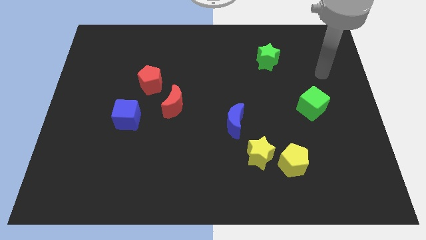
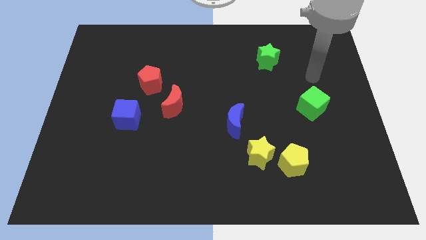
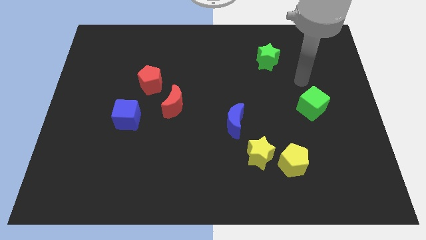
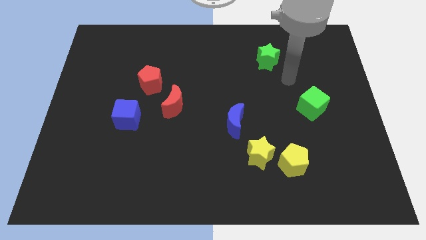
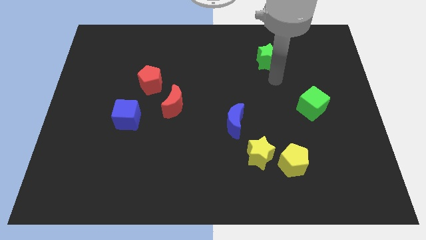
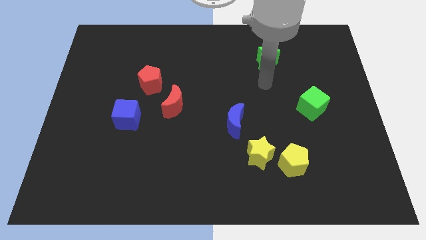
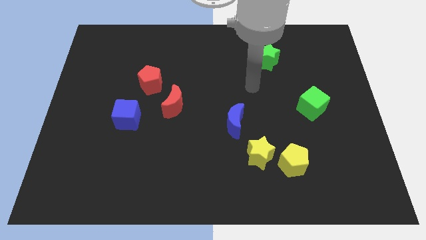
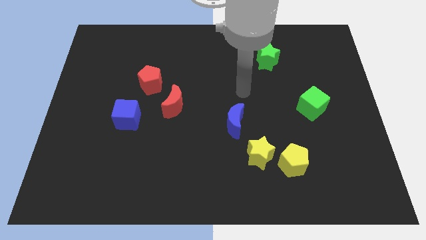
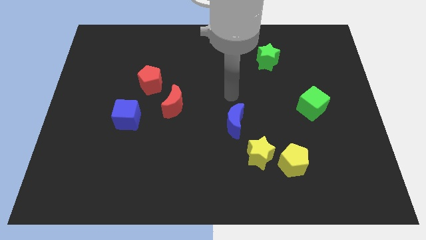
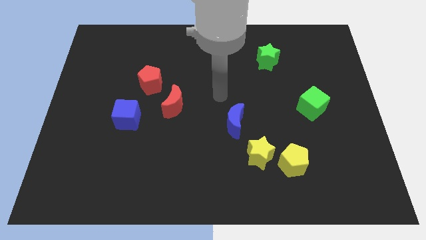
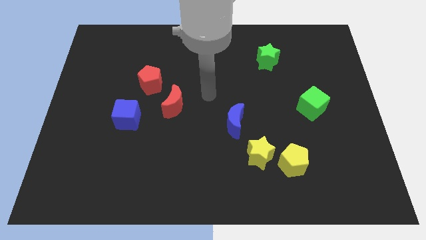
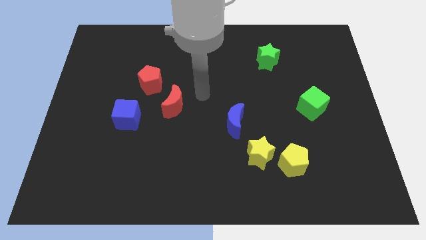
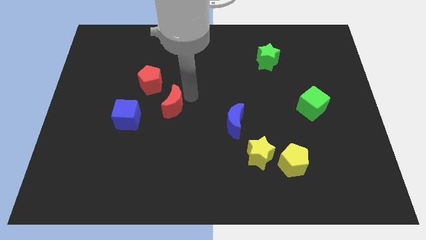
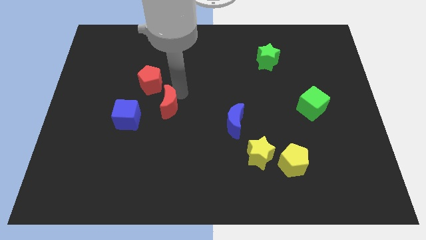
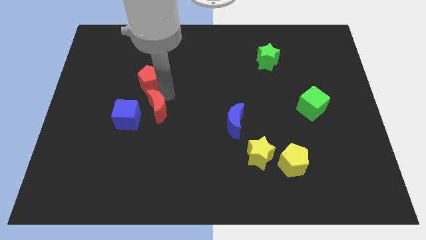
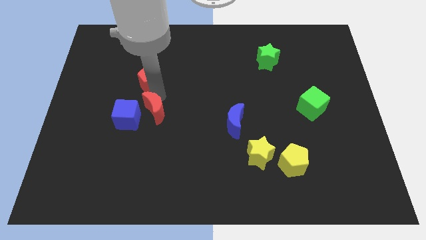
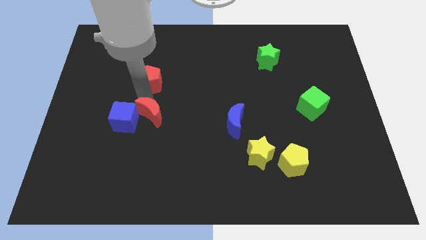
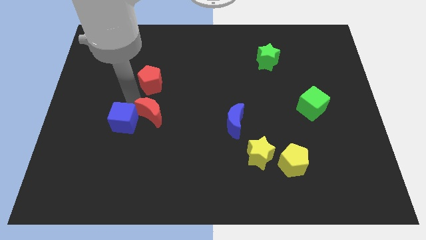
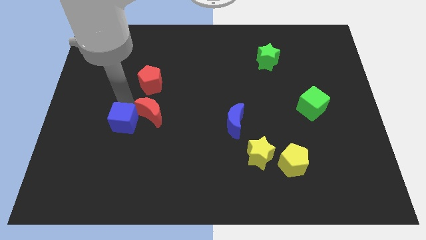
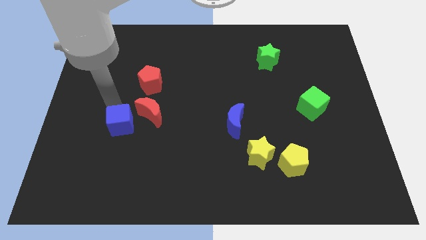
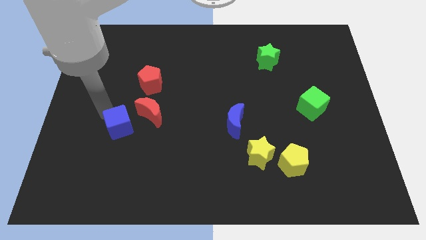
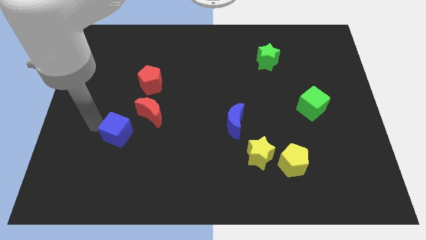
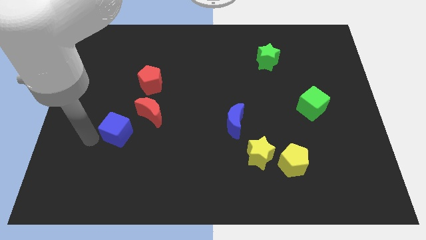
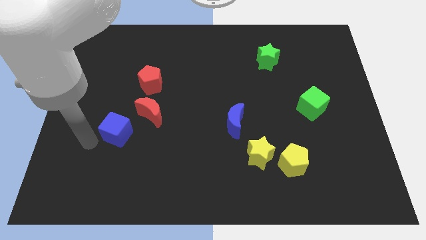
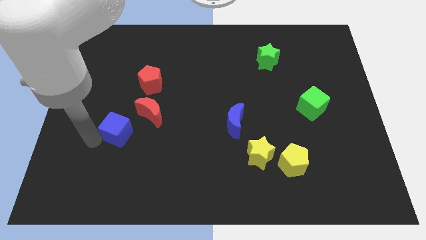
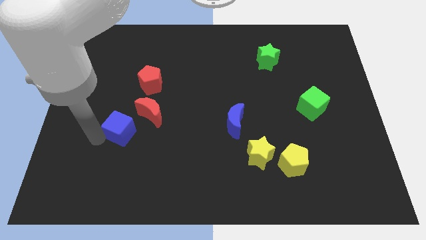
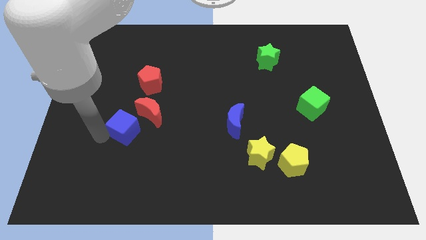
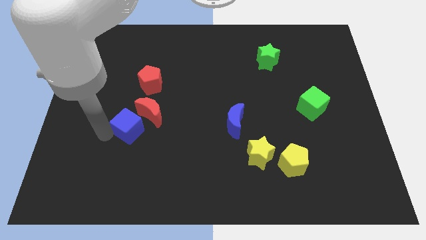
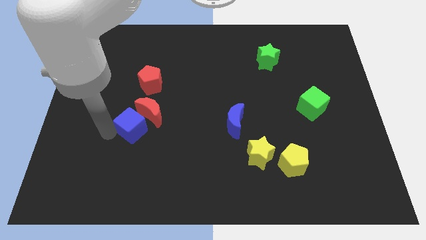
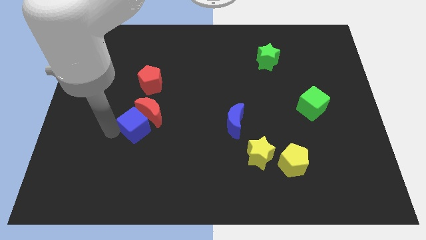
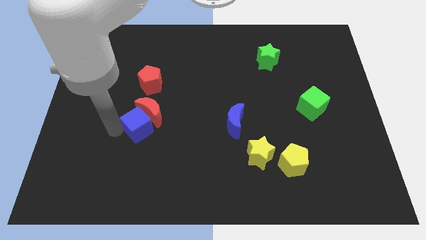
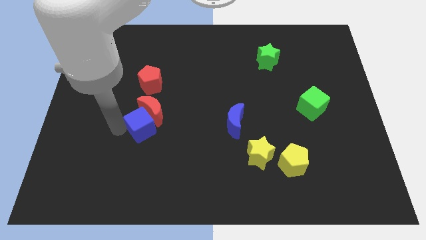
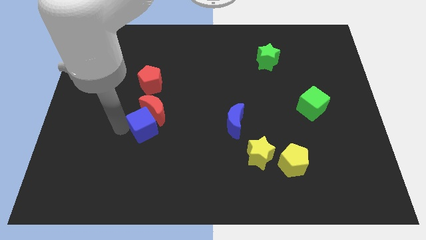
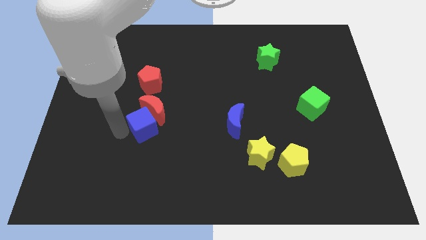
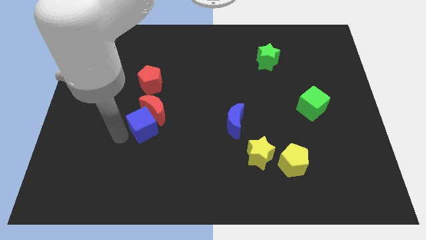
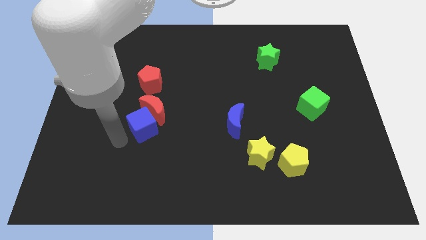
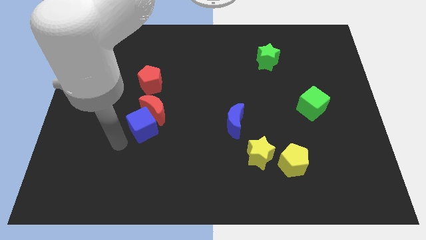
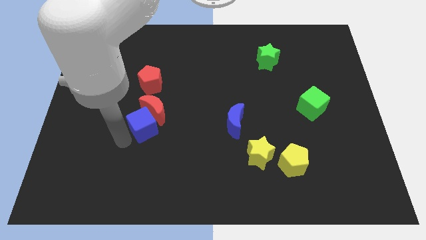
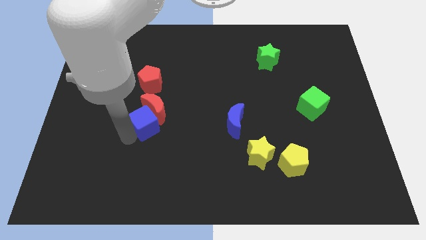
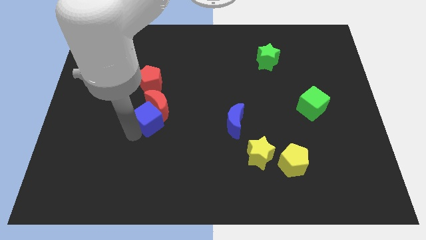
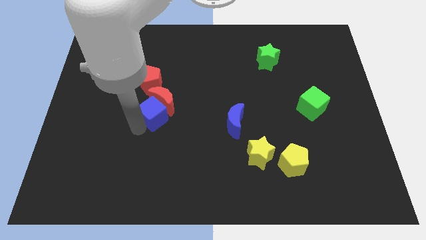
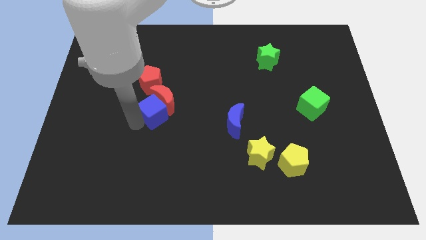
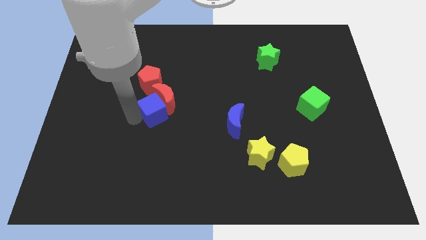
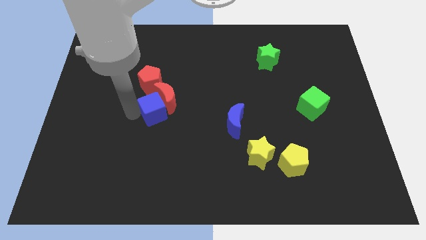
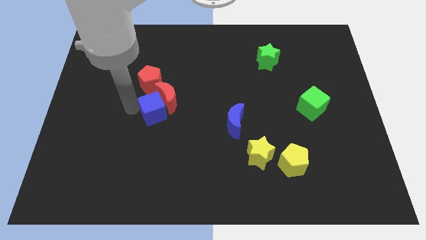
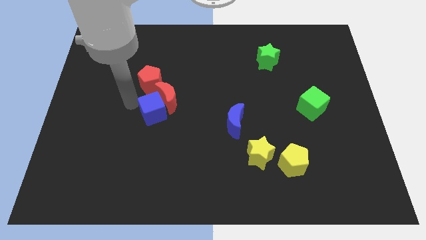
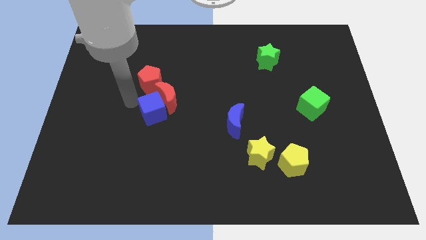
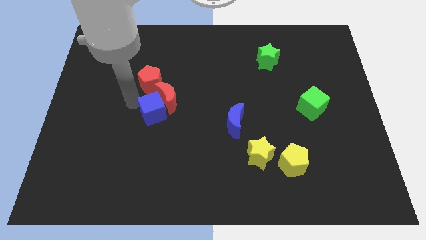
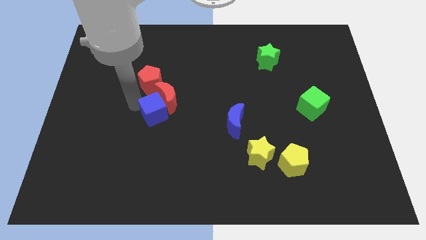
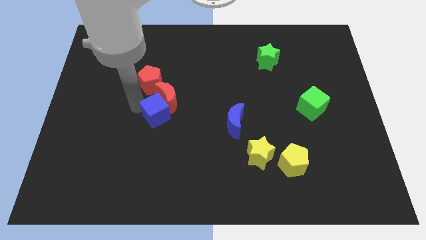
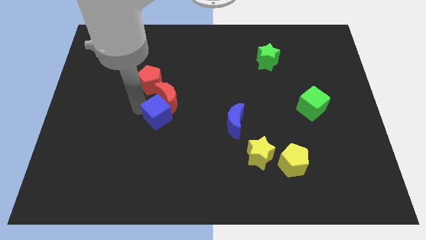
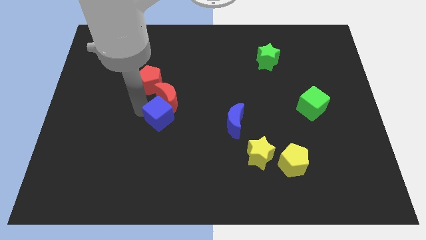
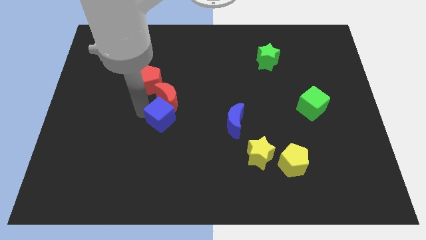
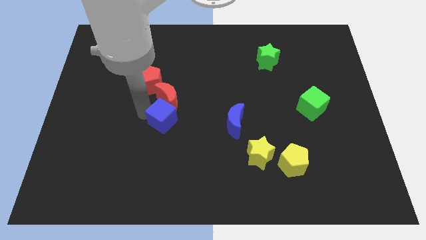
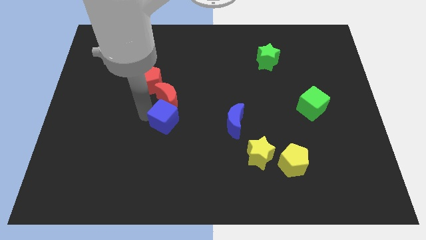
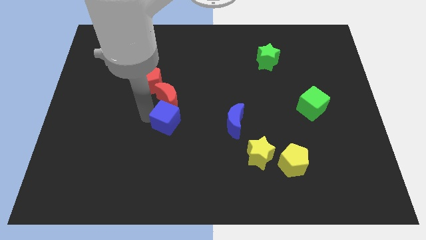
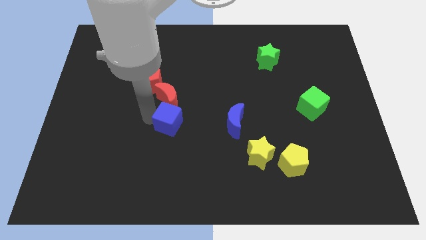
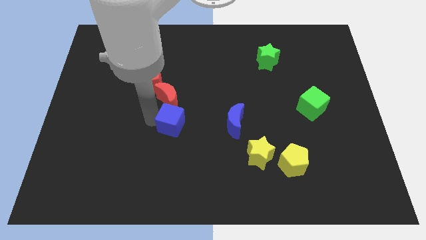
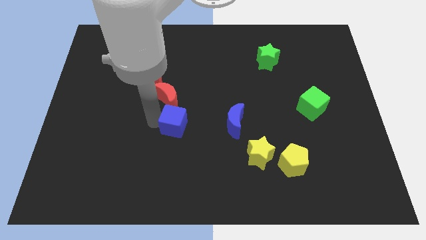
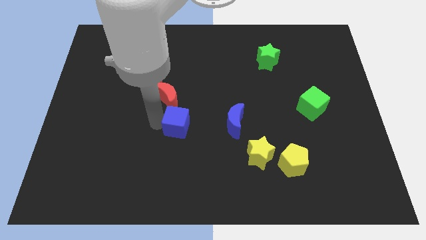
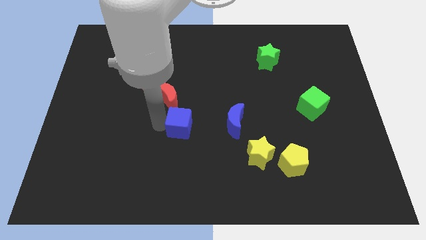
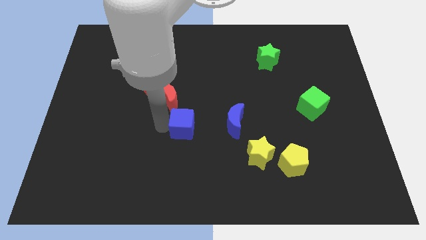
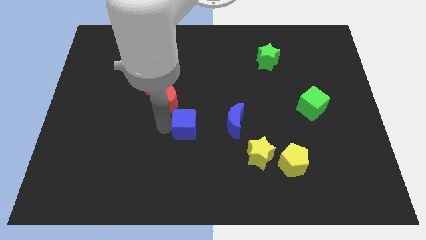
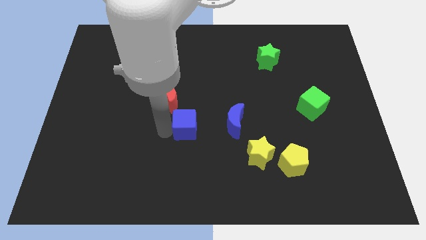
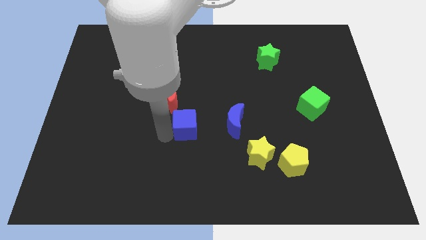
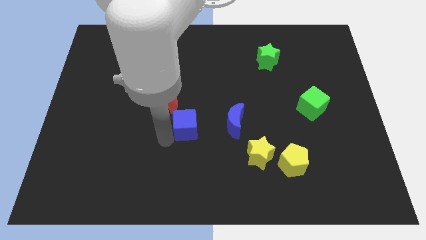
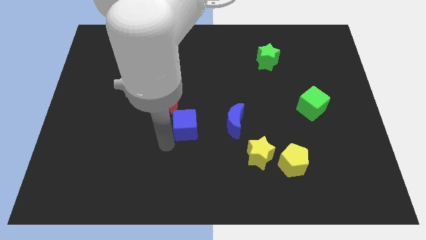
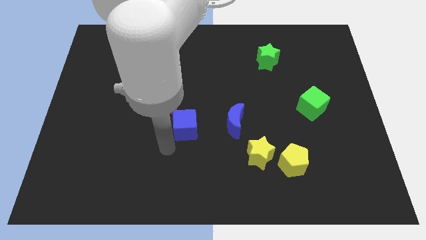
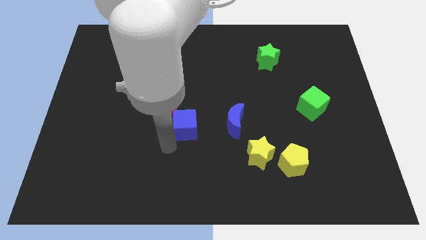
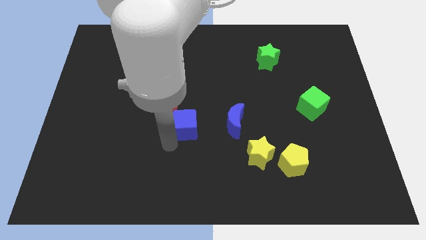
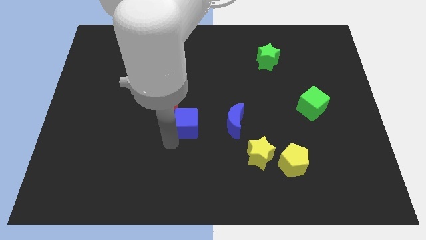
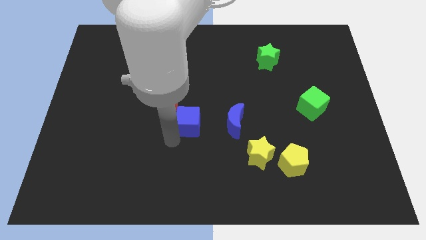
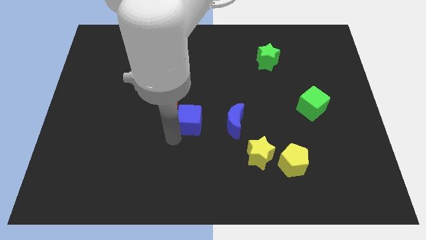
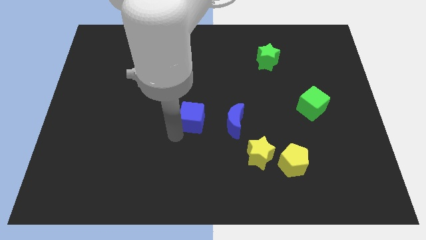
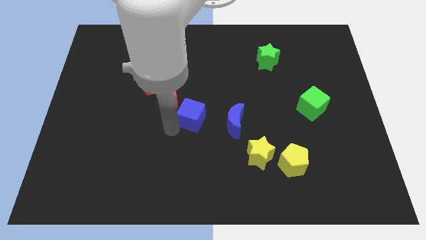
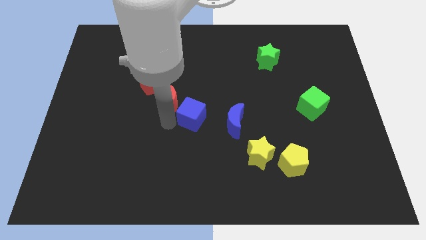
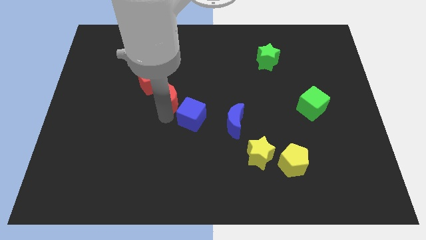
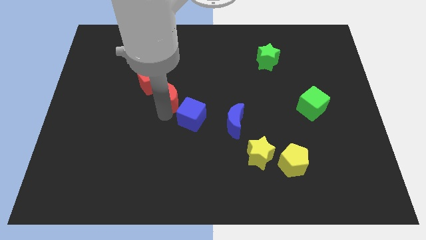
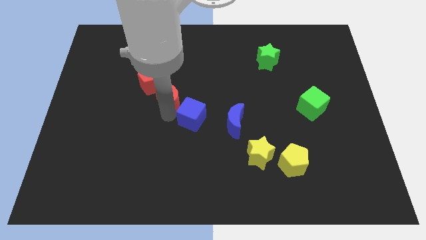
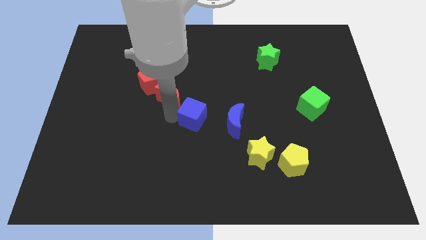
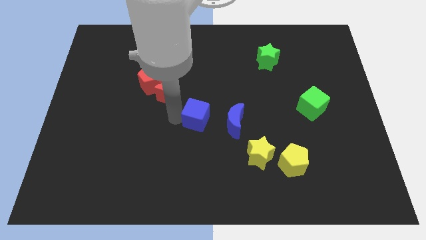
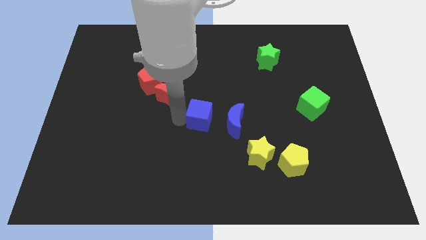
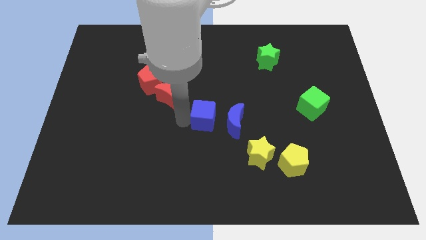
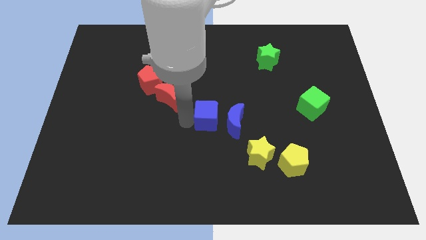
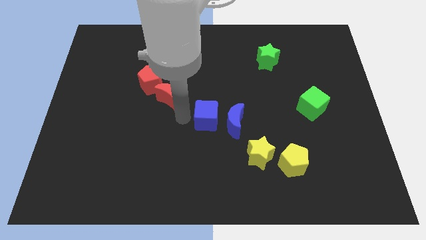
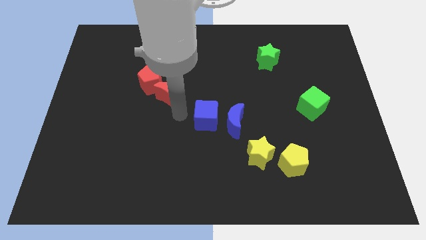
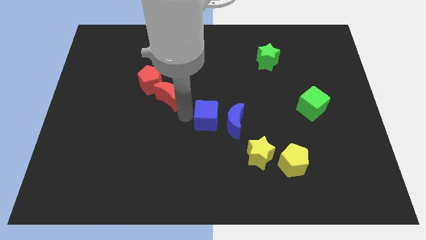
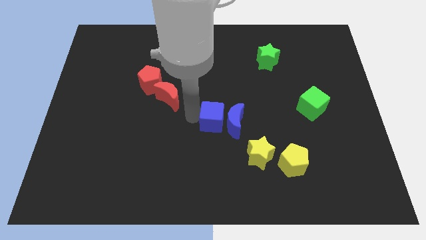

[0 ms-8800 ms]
push the blue cube next to the blue moon
